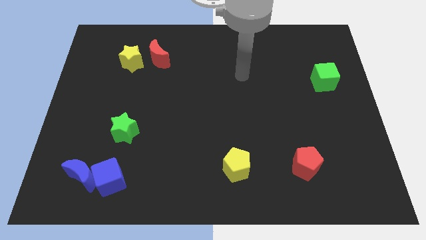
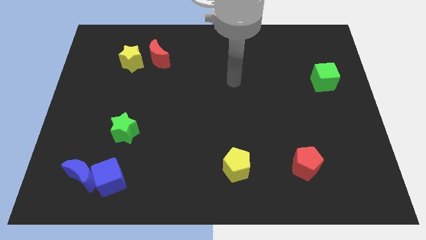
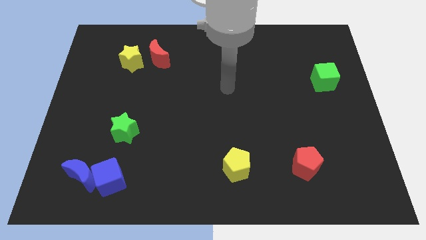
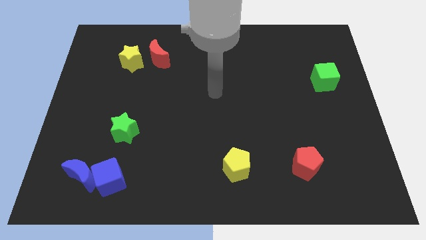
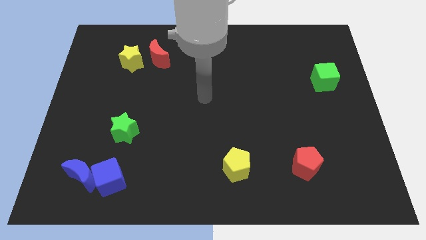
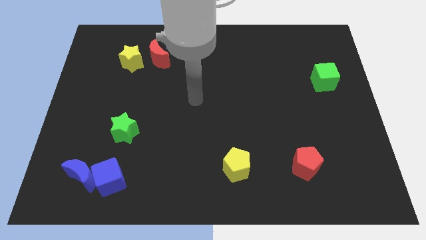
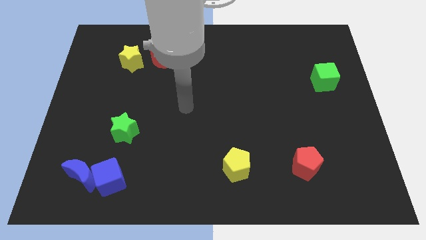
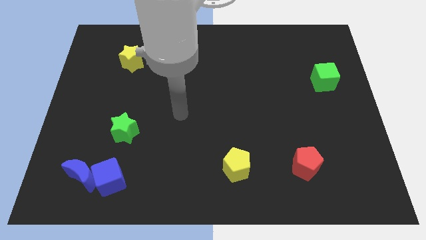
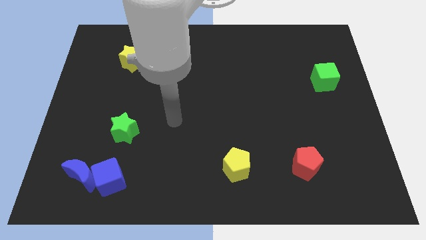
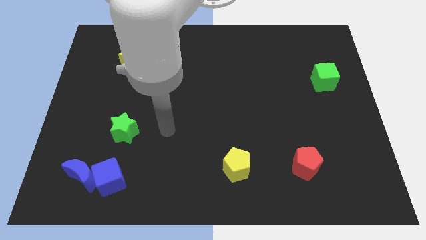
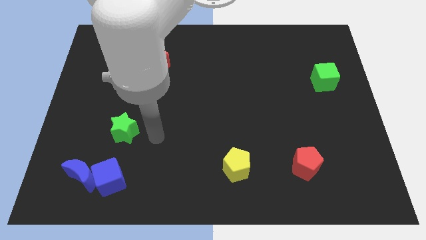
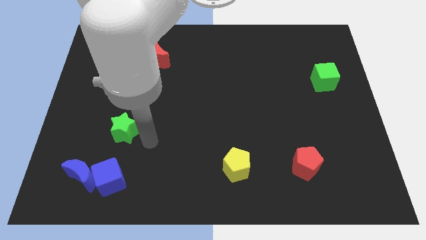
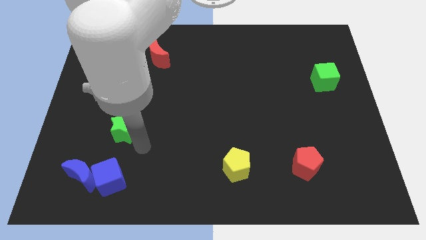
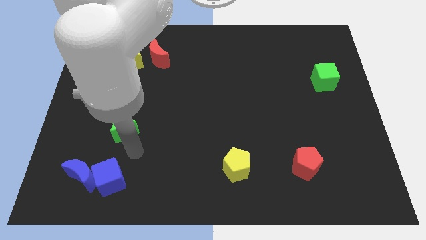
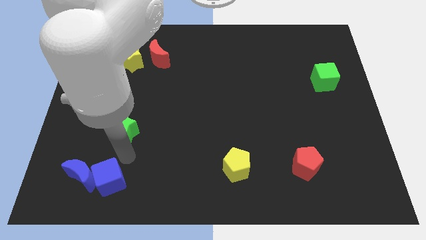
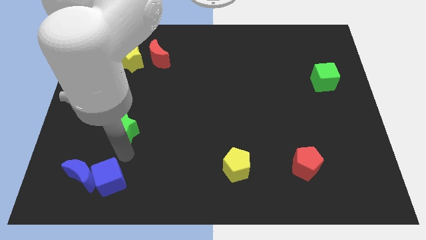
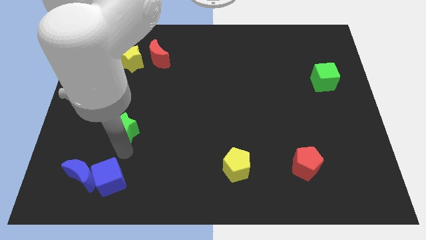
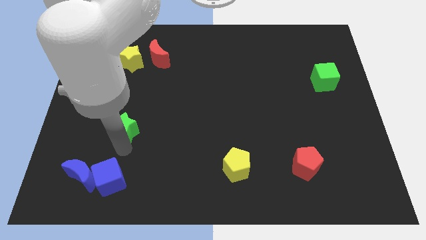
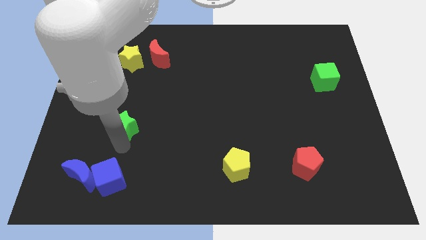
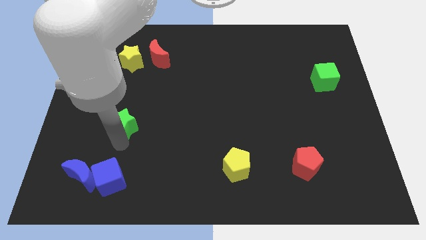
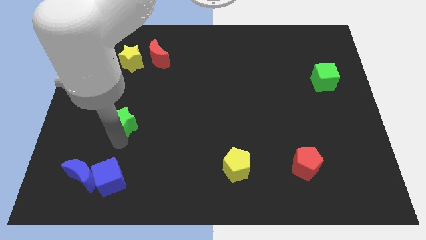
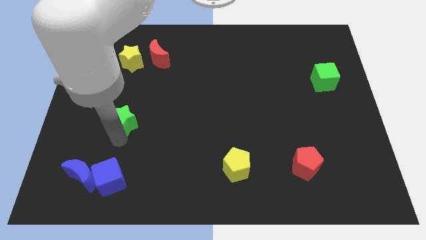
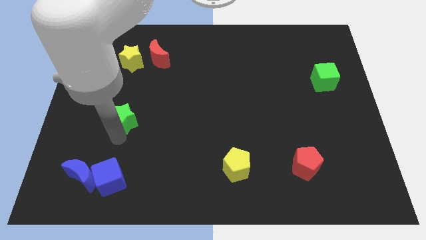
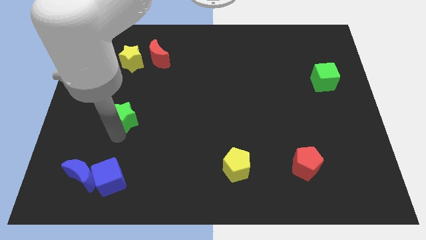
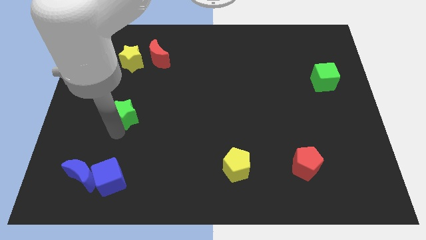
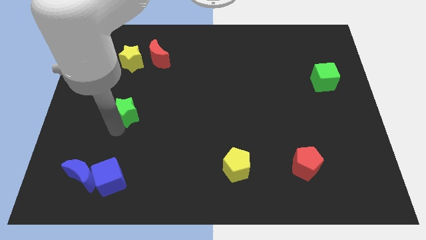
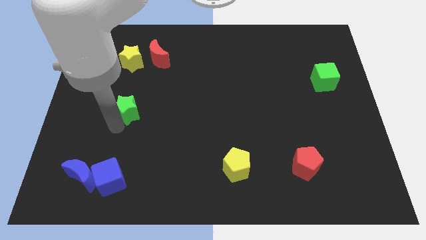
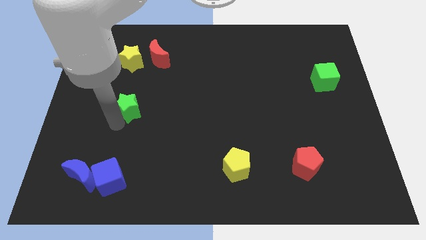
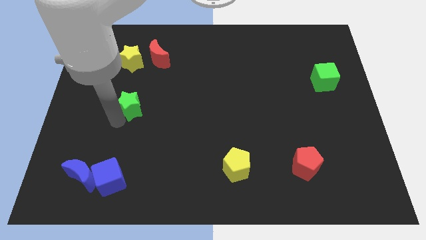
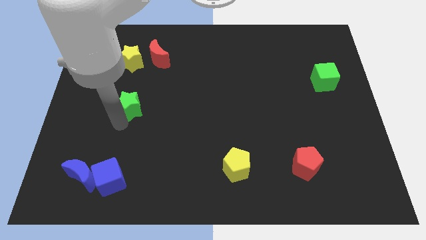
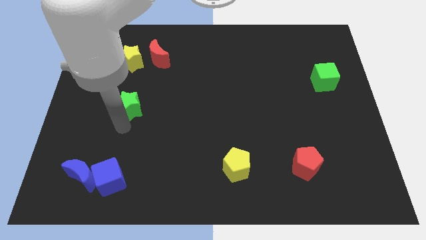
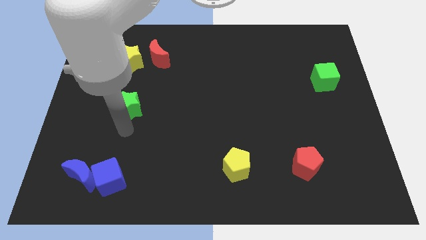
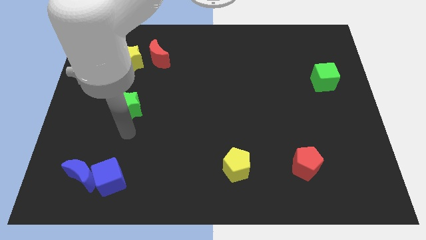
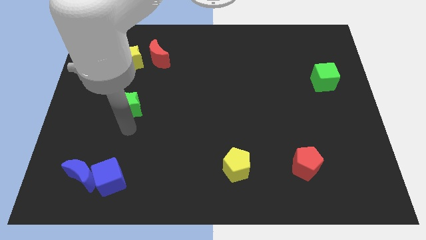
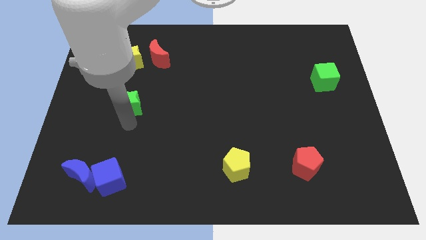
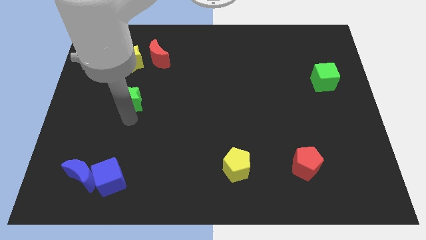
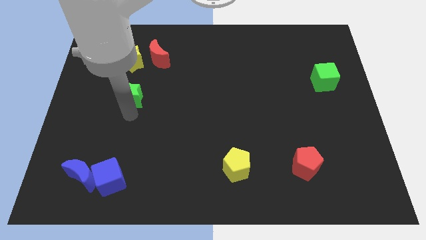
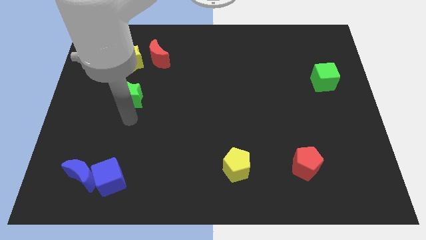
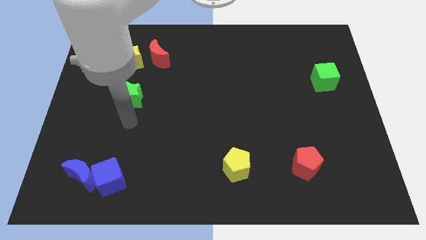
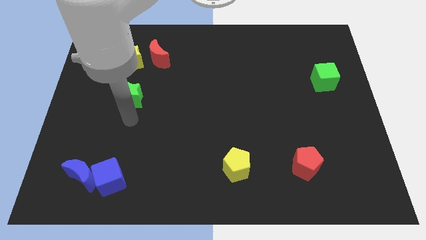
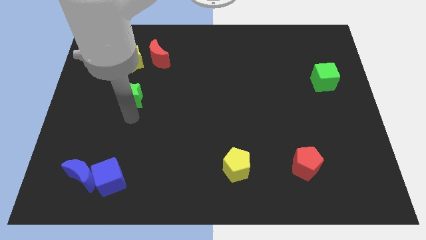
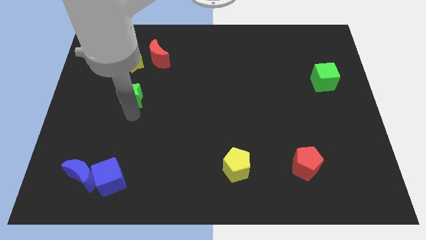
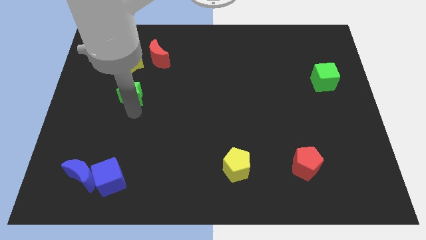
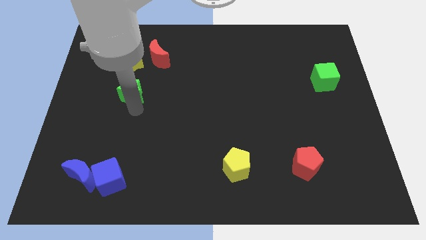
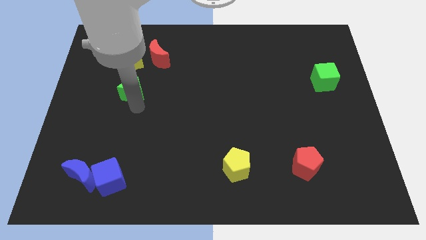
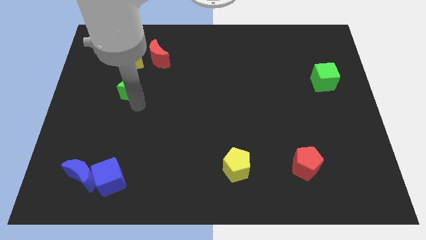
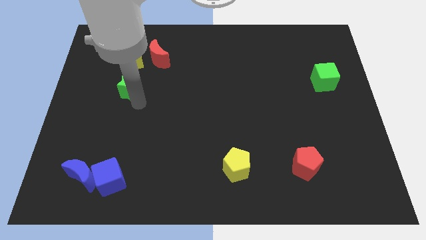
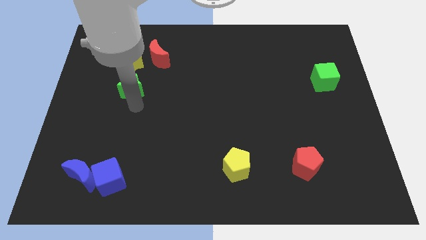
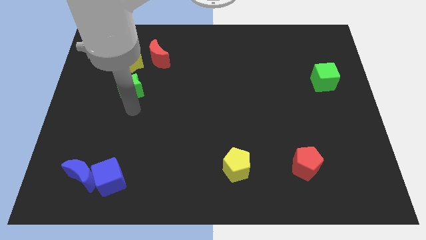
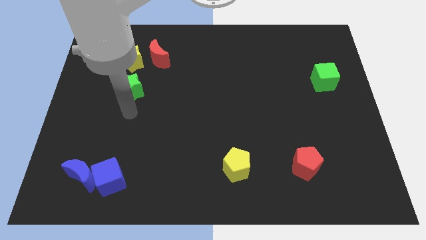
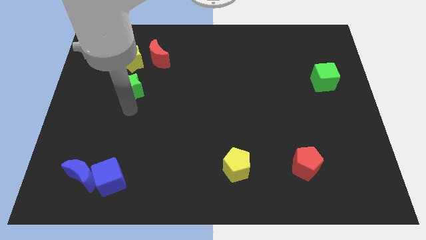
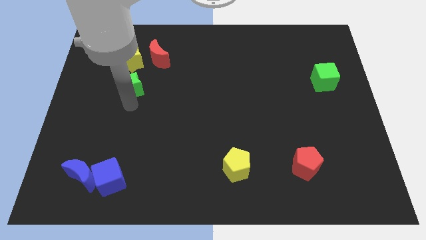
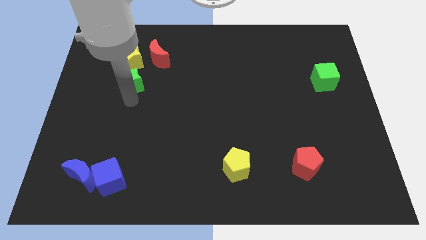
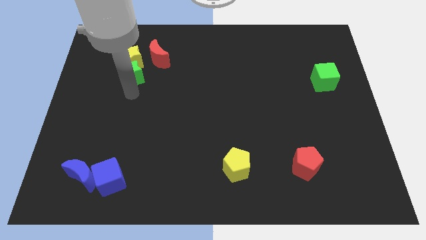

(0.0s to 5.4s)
slide the green star next to the yellow star

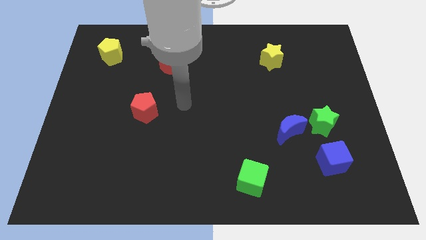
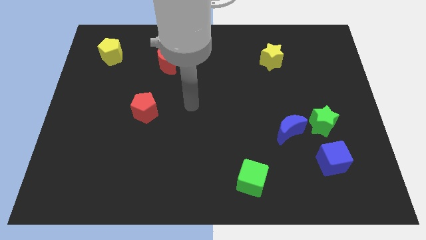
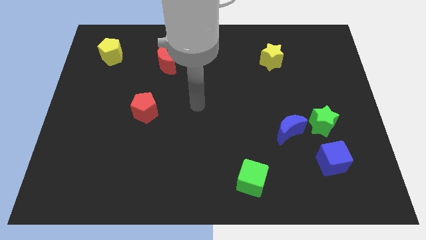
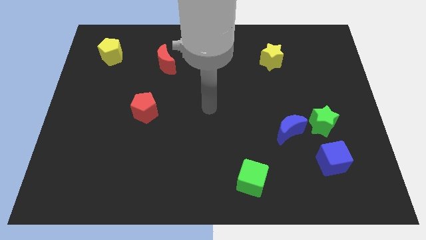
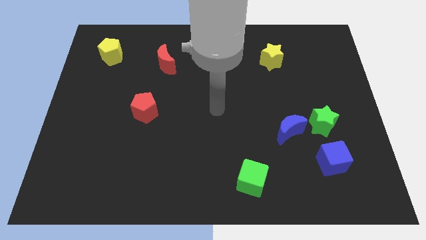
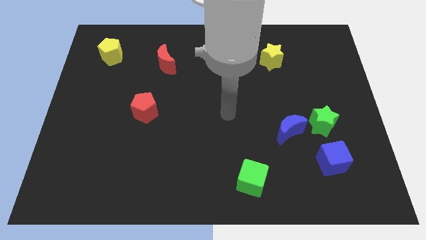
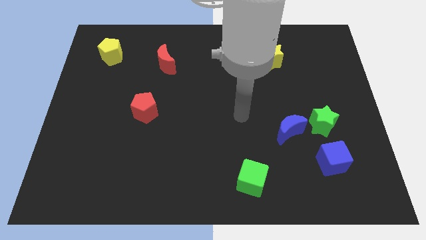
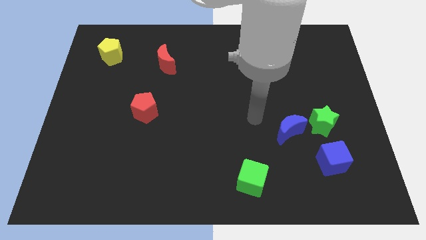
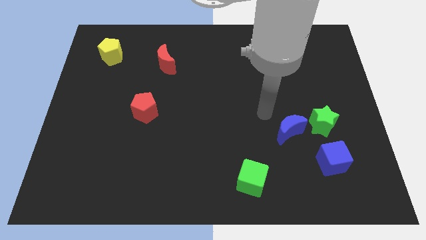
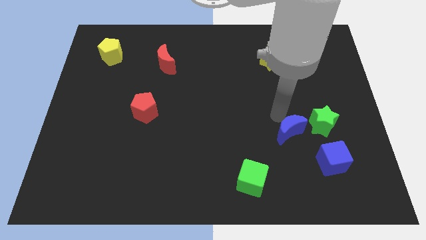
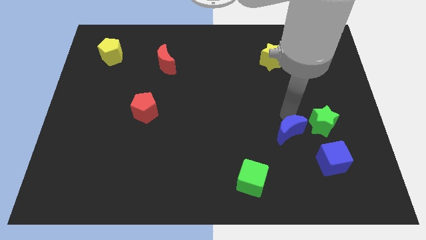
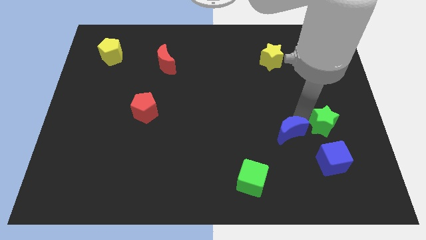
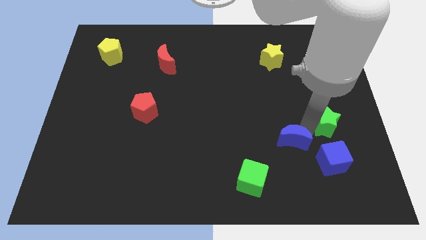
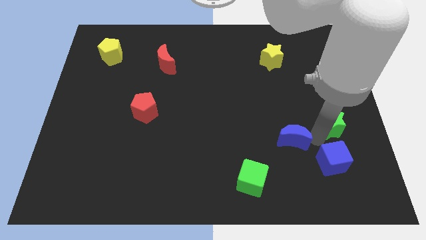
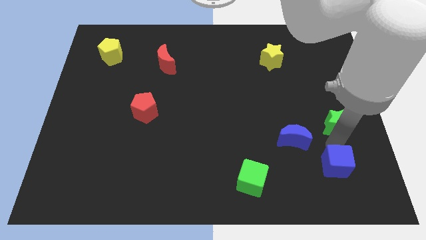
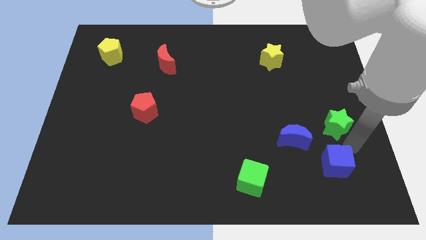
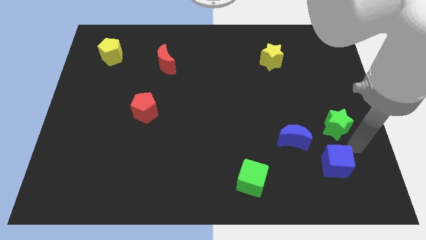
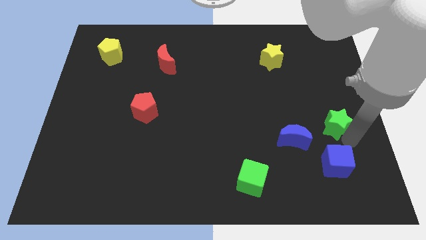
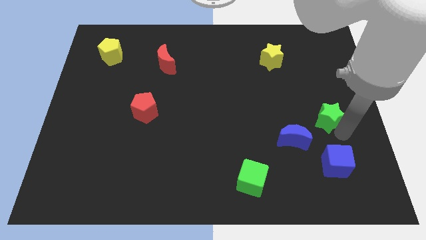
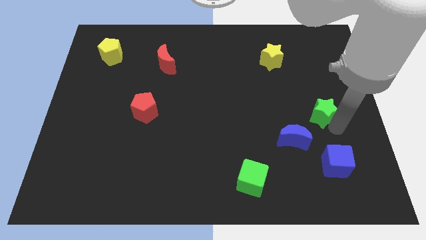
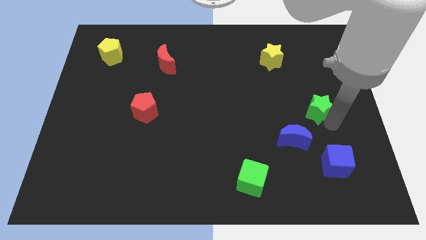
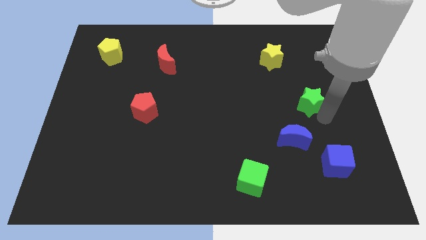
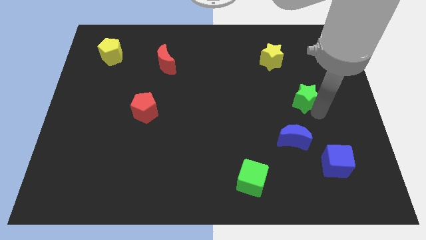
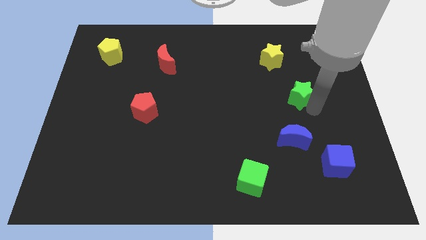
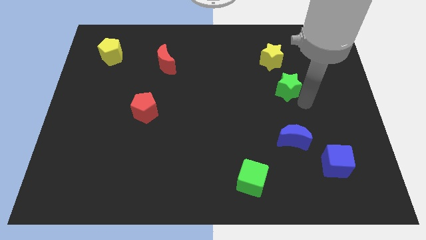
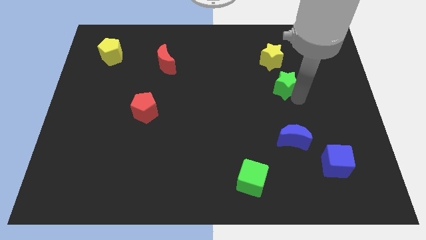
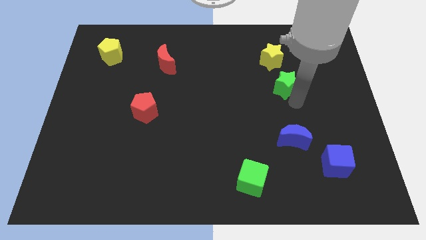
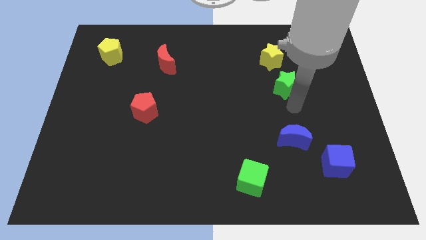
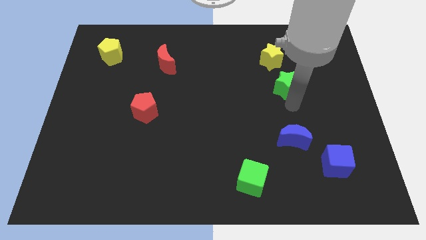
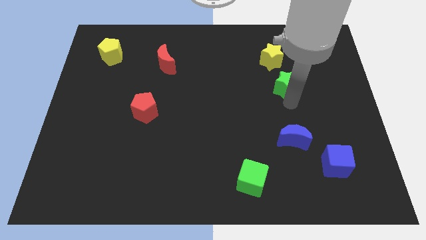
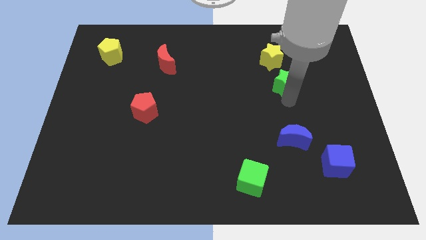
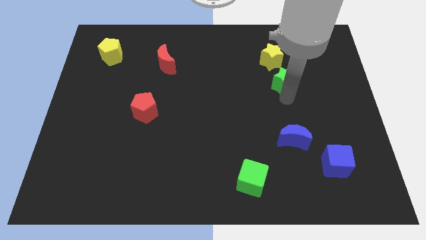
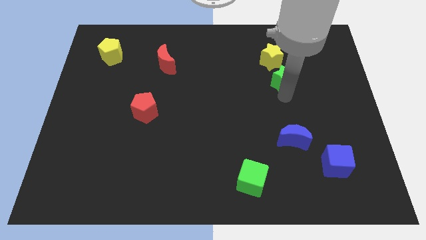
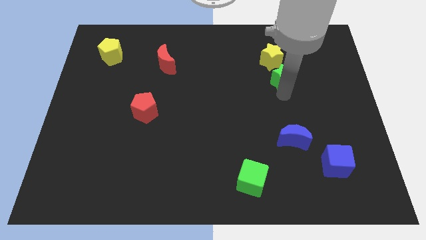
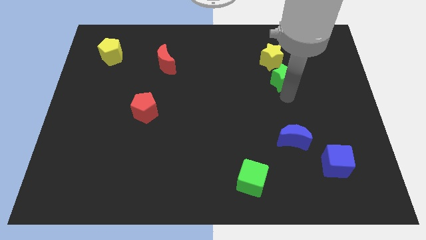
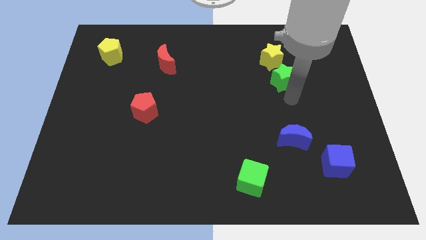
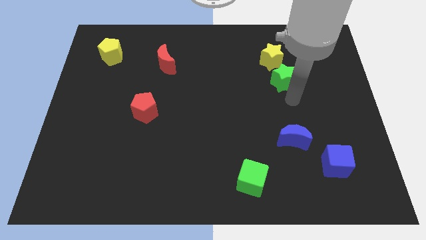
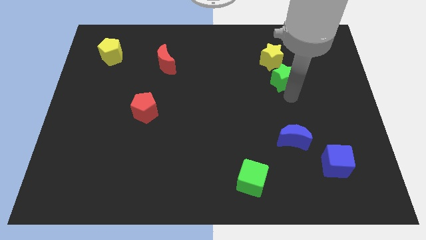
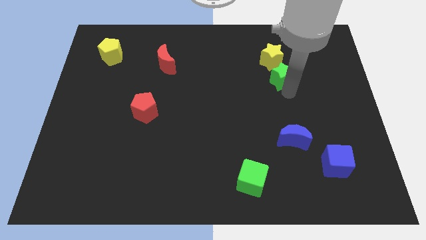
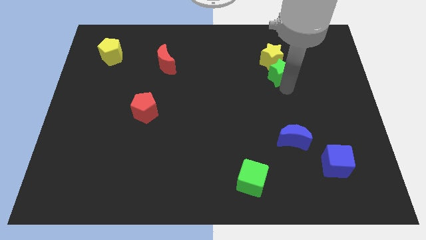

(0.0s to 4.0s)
put the green star to the yellow star
